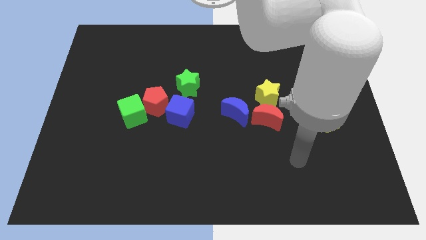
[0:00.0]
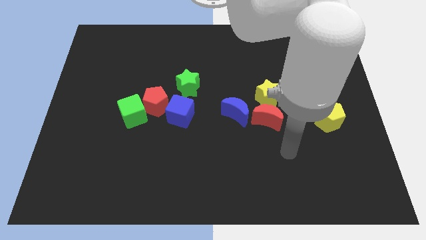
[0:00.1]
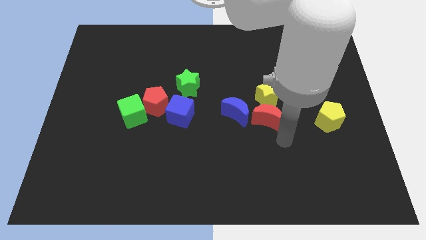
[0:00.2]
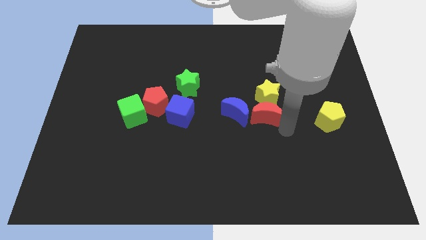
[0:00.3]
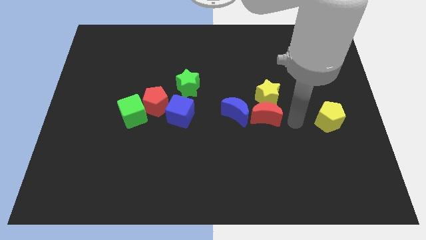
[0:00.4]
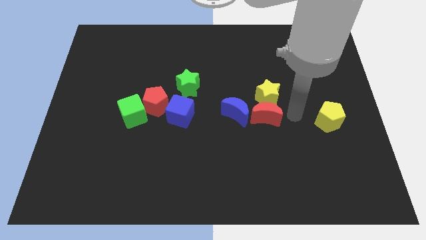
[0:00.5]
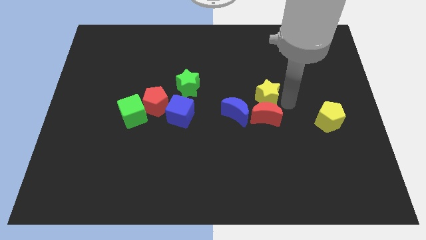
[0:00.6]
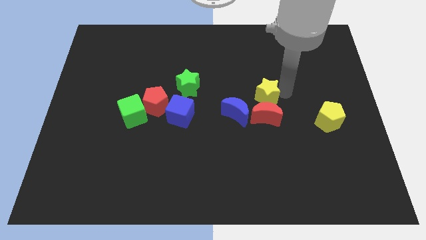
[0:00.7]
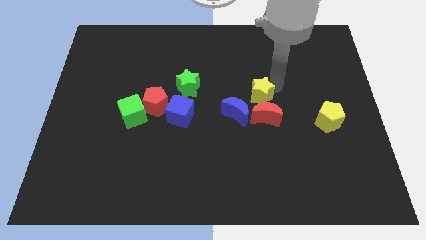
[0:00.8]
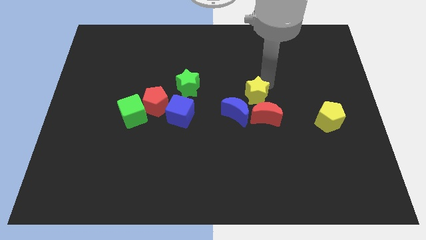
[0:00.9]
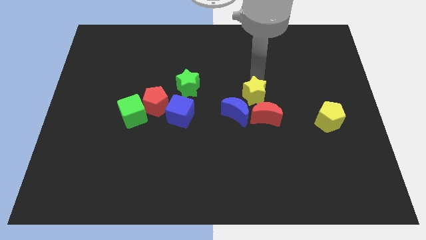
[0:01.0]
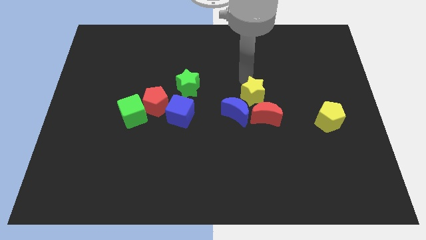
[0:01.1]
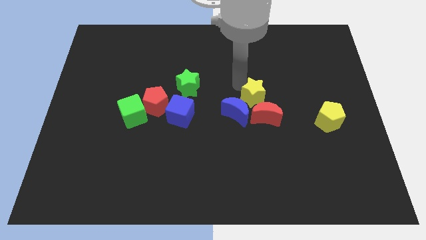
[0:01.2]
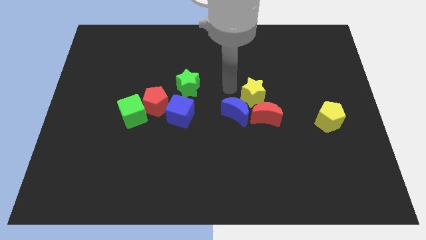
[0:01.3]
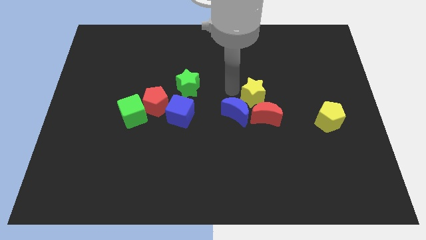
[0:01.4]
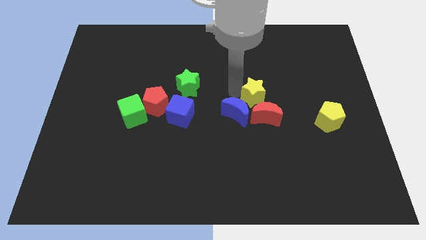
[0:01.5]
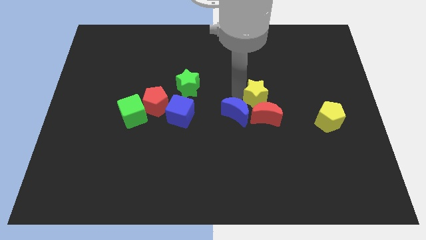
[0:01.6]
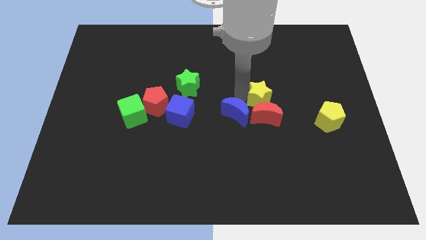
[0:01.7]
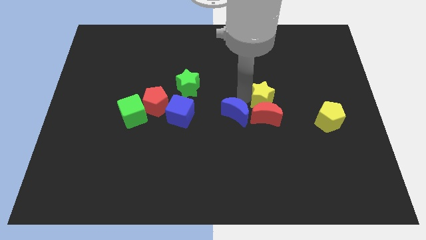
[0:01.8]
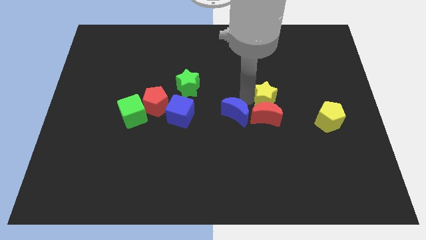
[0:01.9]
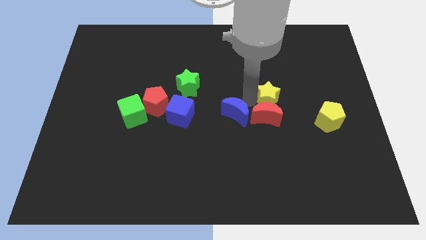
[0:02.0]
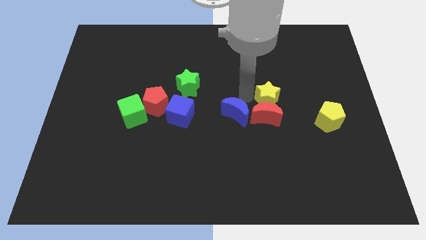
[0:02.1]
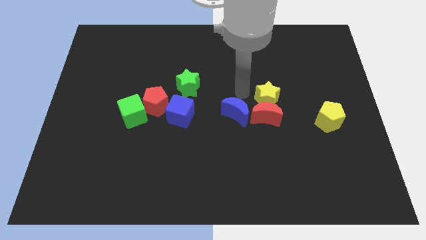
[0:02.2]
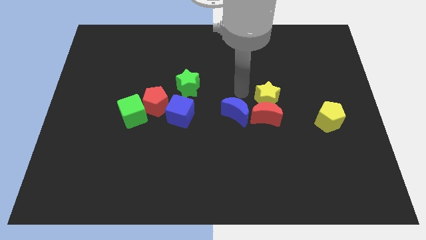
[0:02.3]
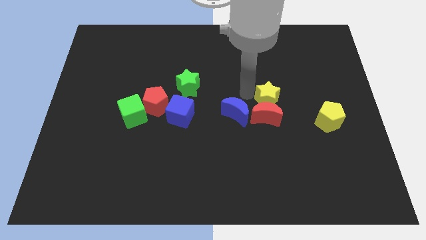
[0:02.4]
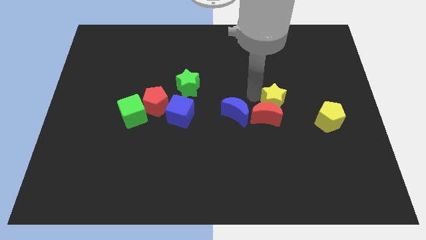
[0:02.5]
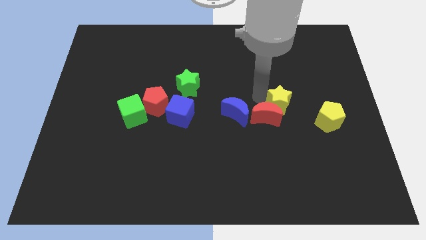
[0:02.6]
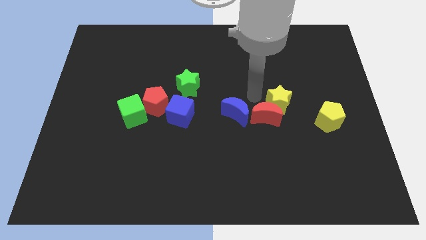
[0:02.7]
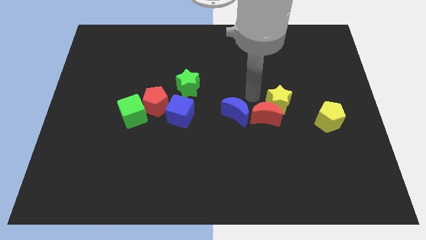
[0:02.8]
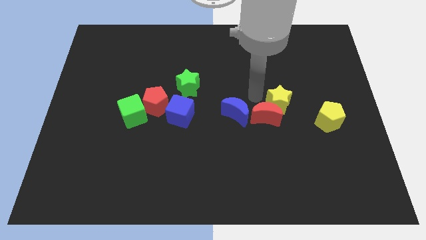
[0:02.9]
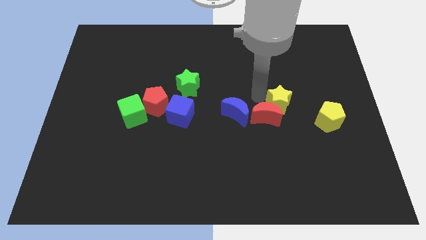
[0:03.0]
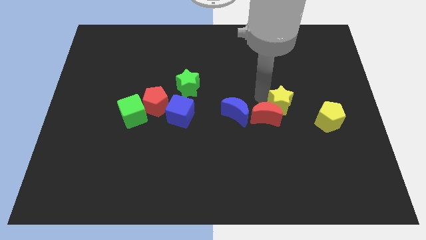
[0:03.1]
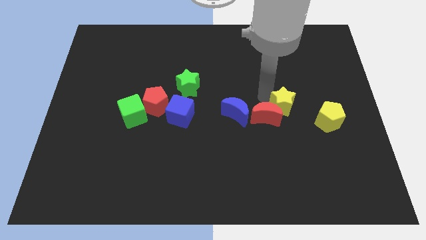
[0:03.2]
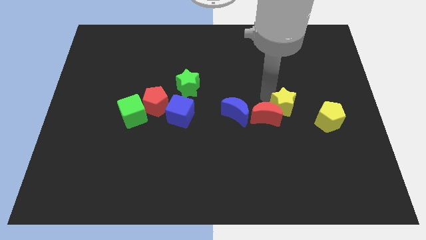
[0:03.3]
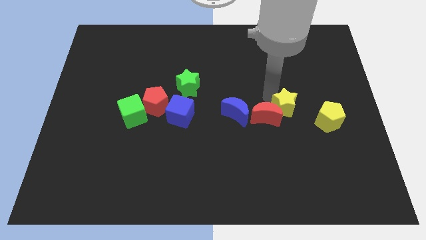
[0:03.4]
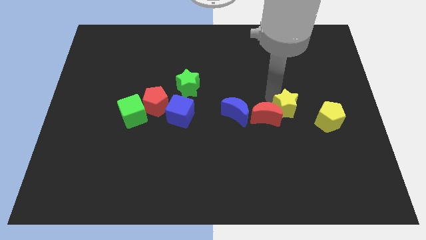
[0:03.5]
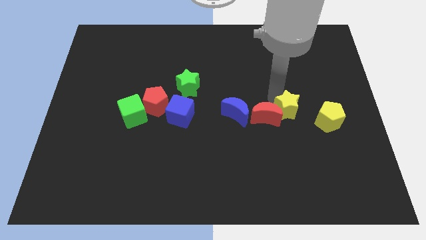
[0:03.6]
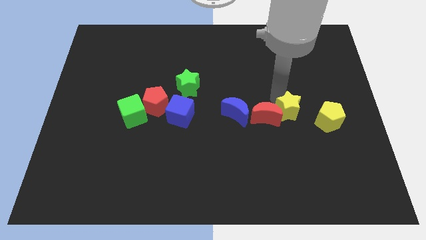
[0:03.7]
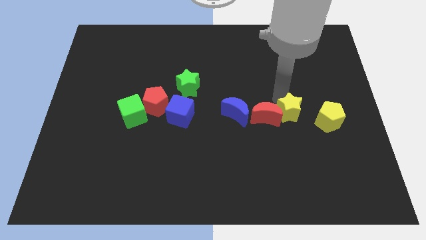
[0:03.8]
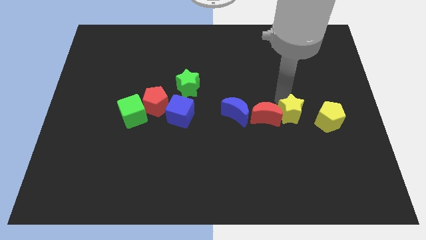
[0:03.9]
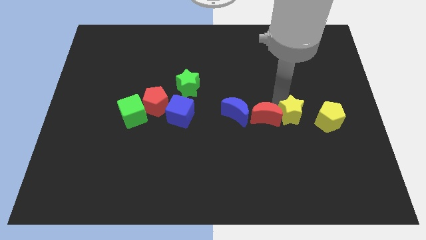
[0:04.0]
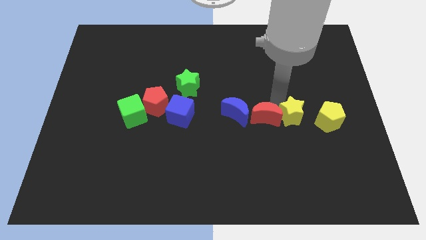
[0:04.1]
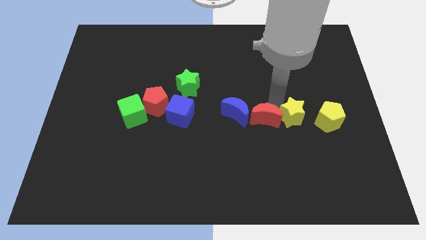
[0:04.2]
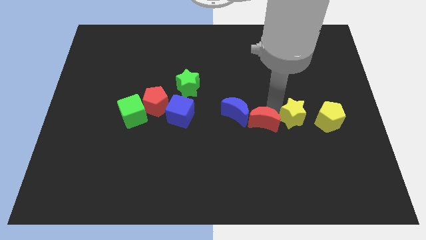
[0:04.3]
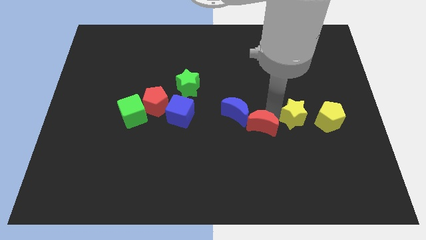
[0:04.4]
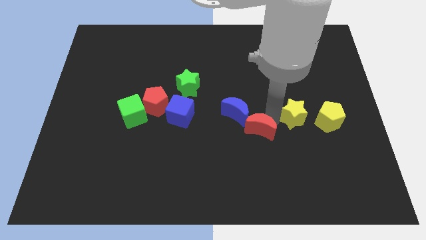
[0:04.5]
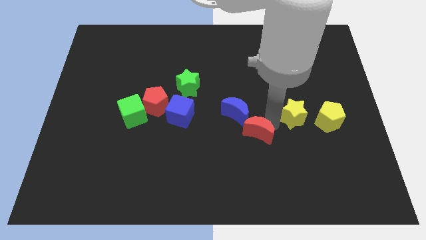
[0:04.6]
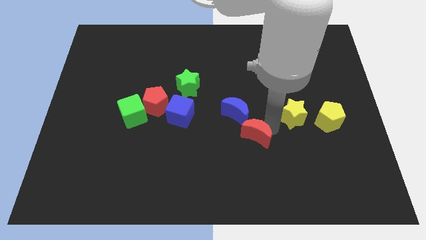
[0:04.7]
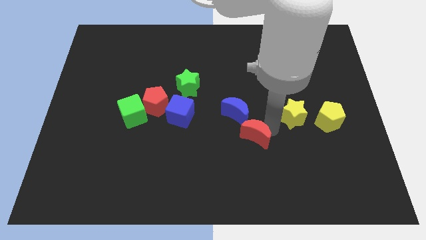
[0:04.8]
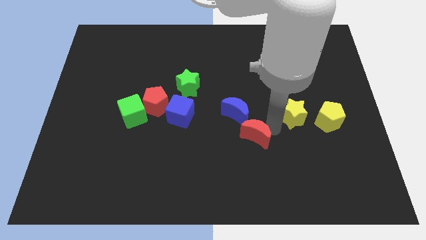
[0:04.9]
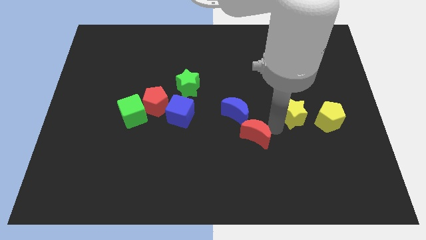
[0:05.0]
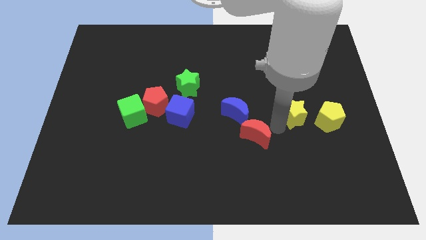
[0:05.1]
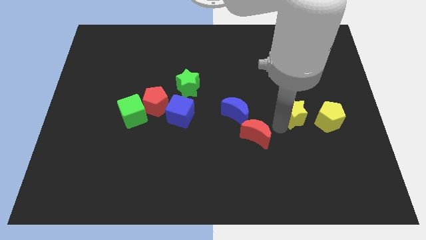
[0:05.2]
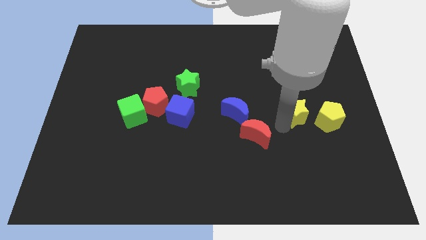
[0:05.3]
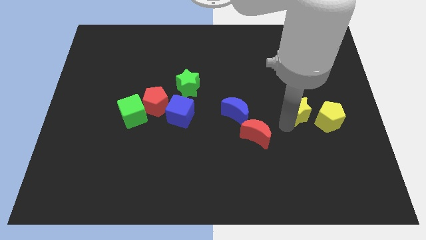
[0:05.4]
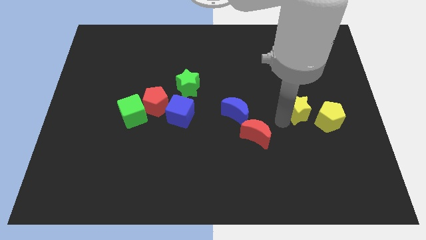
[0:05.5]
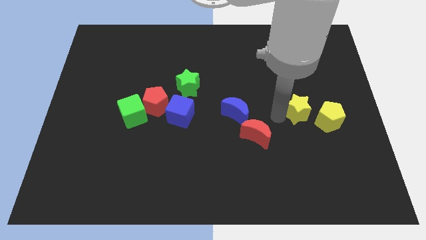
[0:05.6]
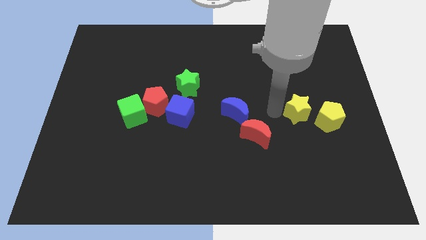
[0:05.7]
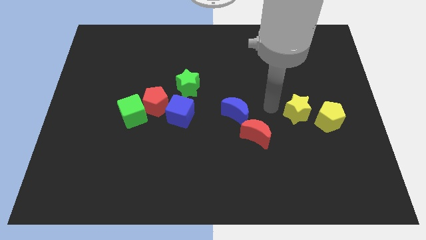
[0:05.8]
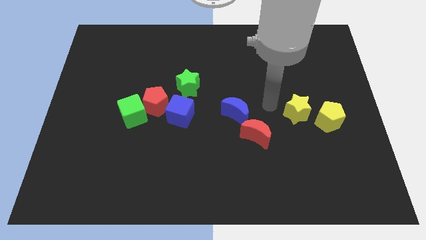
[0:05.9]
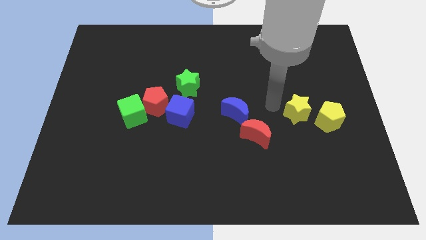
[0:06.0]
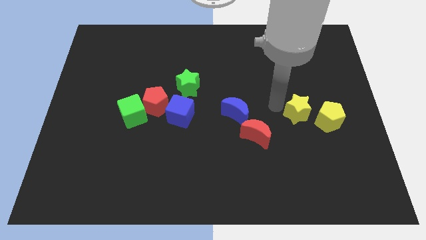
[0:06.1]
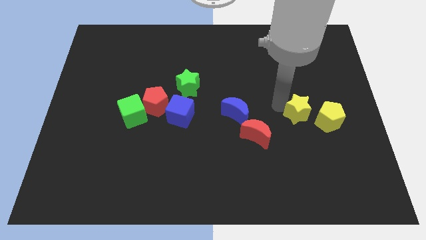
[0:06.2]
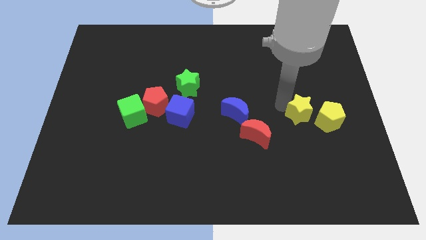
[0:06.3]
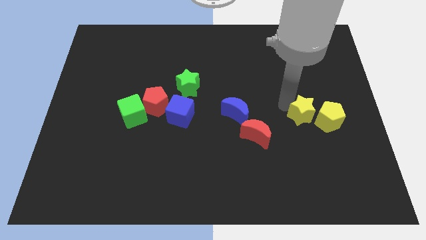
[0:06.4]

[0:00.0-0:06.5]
push the yellow star to the yellow pentagon
